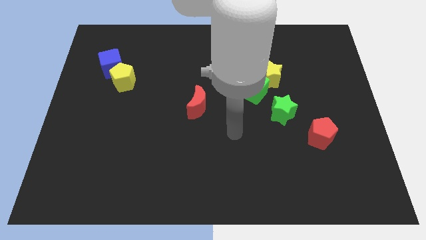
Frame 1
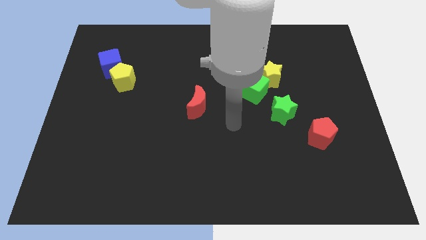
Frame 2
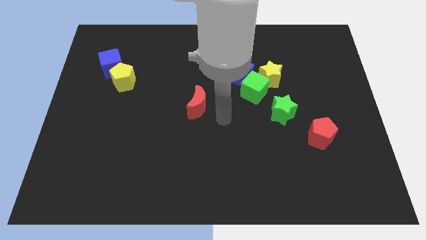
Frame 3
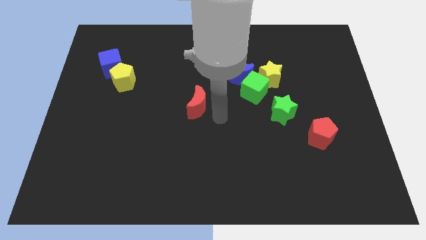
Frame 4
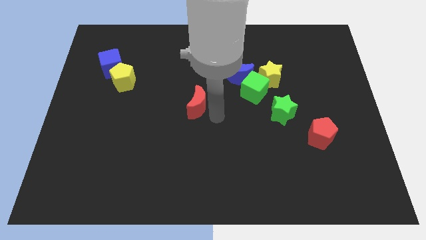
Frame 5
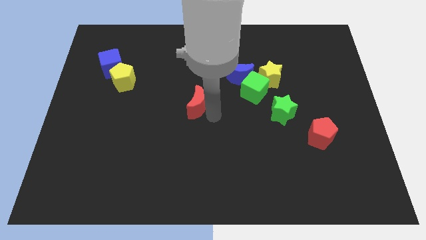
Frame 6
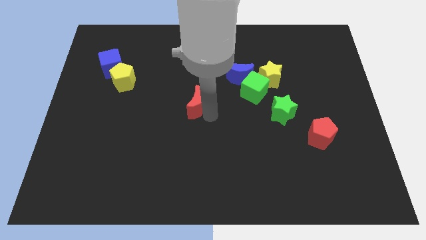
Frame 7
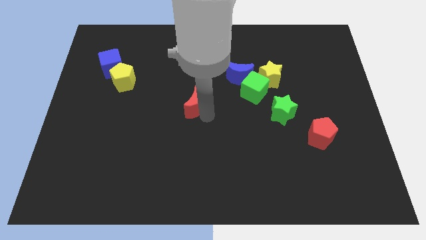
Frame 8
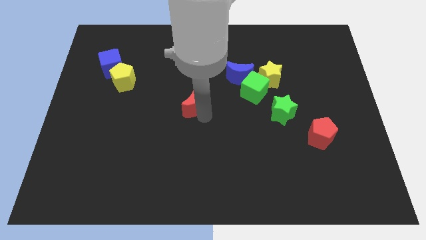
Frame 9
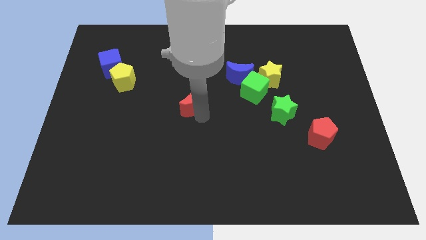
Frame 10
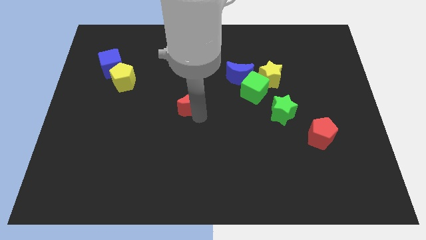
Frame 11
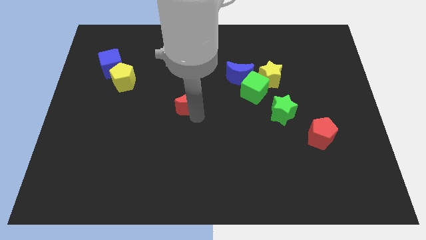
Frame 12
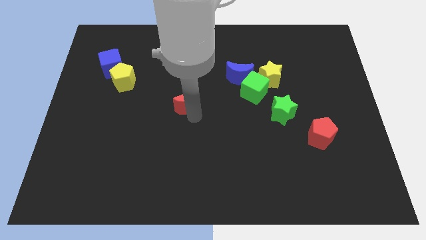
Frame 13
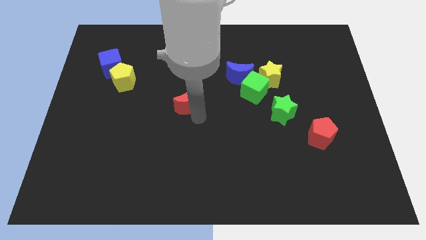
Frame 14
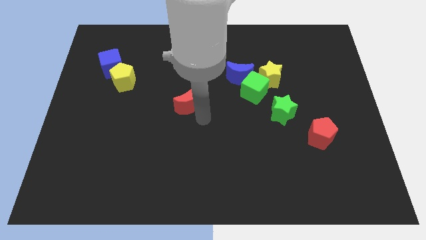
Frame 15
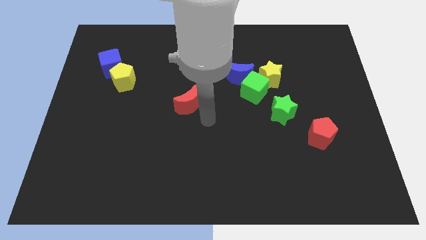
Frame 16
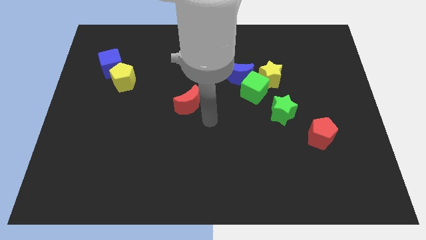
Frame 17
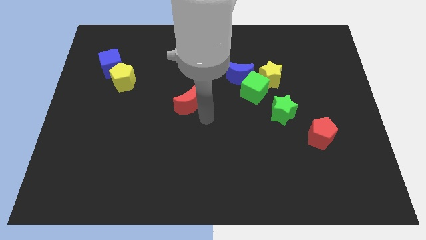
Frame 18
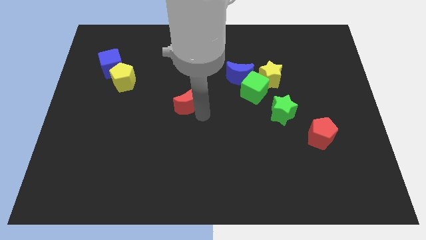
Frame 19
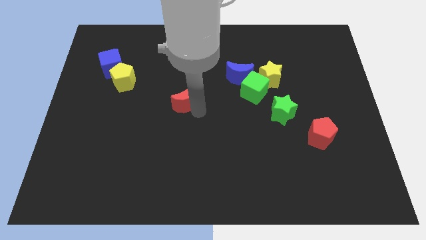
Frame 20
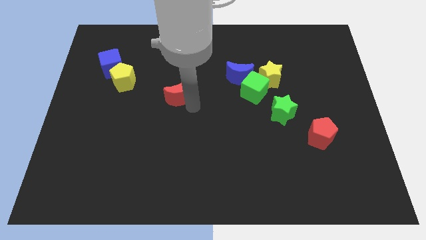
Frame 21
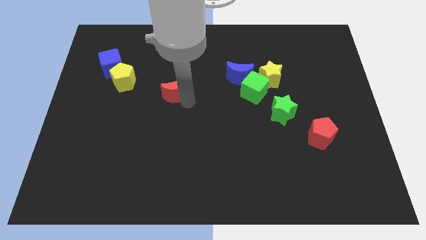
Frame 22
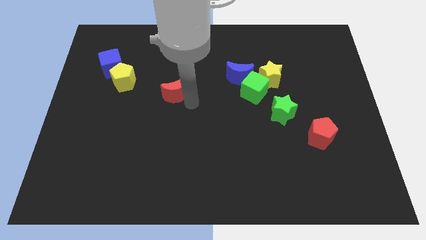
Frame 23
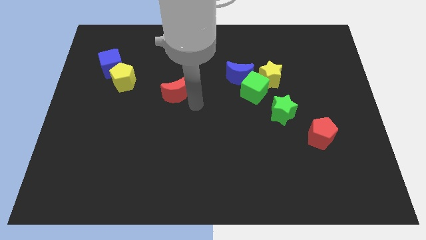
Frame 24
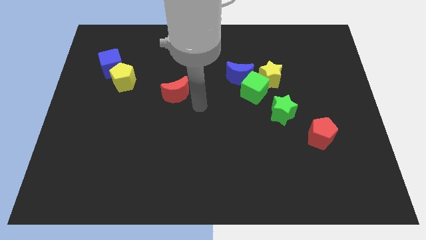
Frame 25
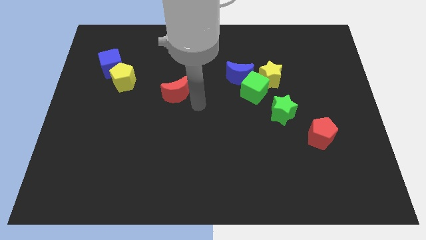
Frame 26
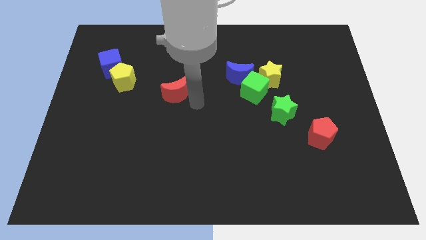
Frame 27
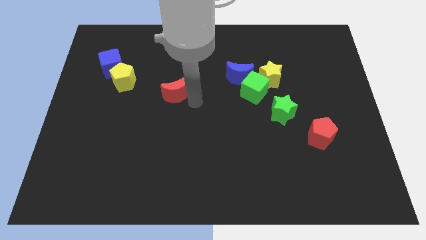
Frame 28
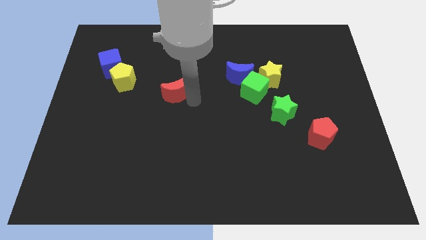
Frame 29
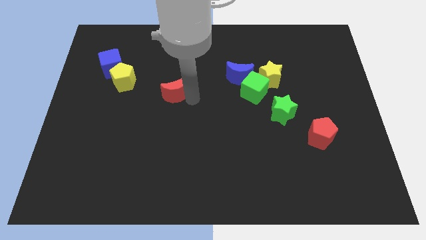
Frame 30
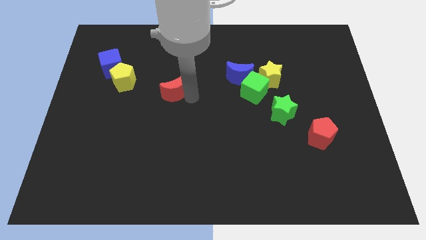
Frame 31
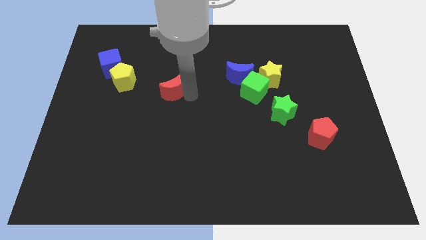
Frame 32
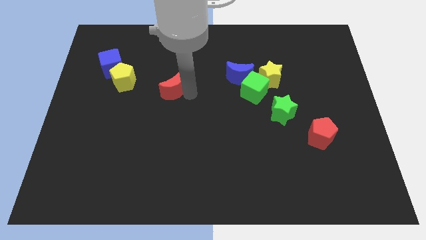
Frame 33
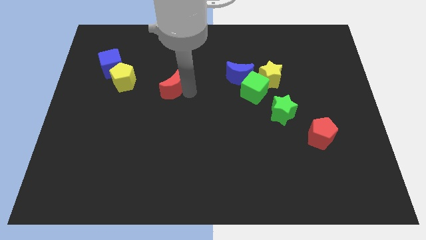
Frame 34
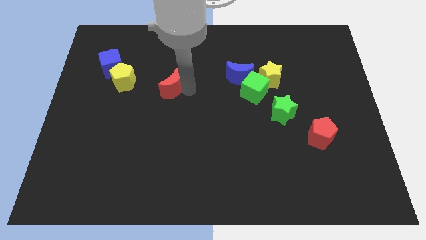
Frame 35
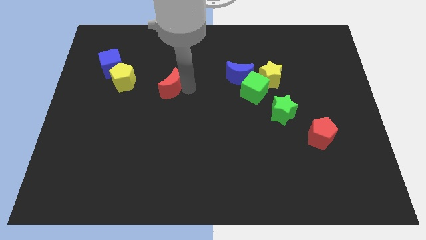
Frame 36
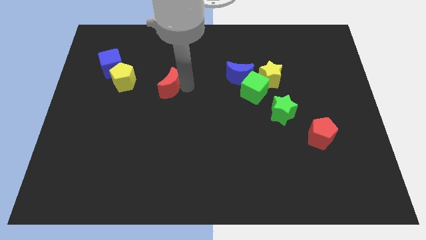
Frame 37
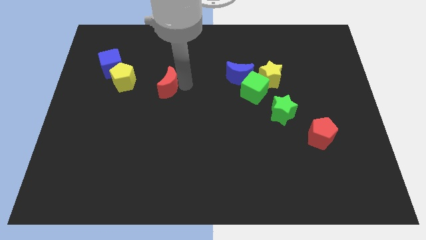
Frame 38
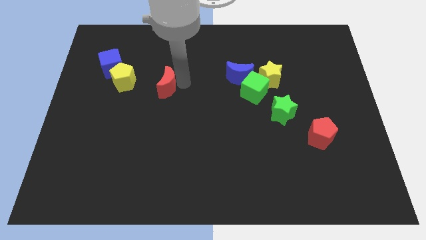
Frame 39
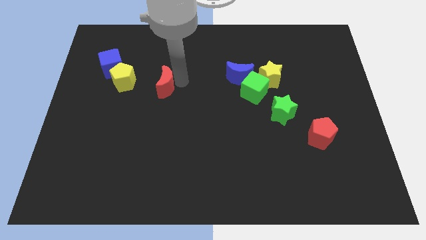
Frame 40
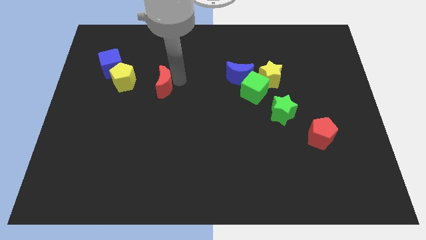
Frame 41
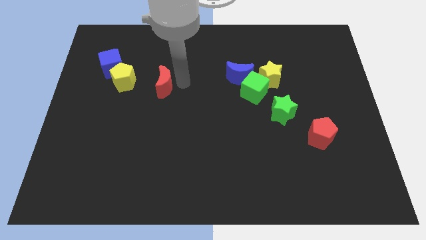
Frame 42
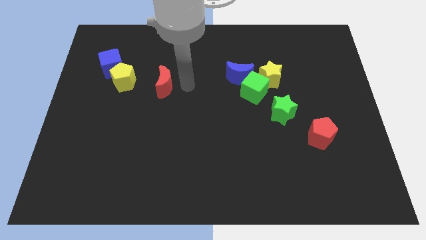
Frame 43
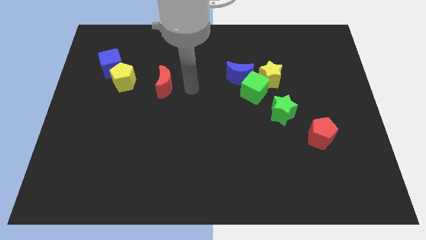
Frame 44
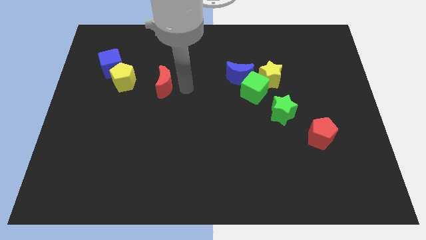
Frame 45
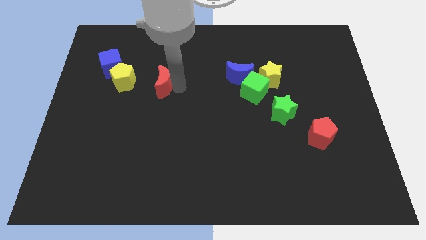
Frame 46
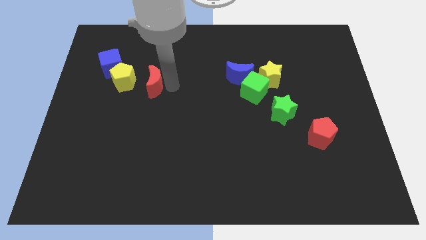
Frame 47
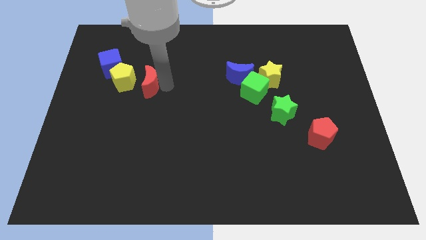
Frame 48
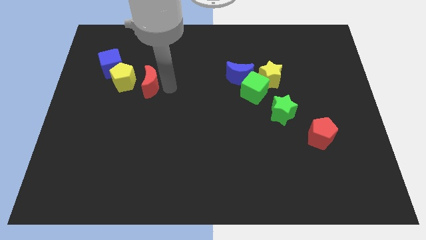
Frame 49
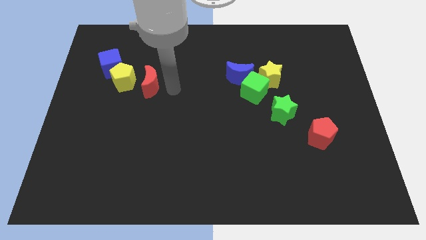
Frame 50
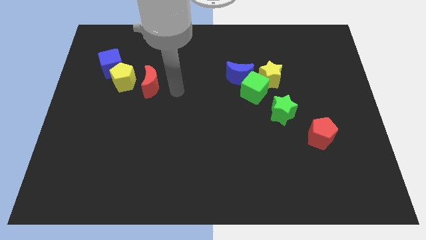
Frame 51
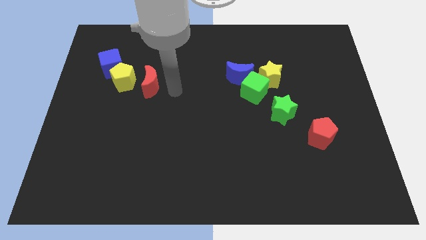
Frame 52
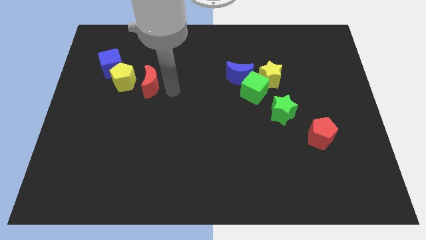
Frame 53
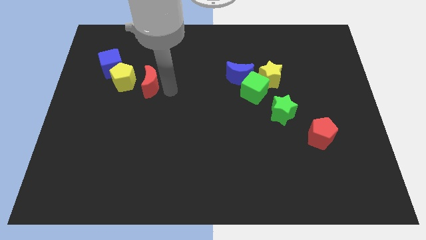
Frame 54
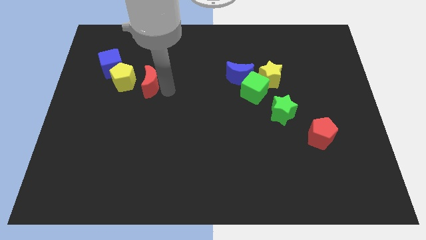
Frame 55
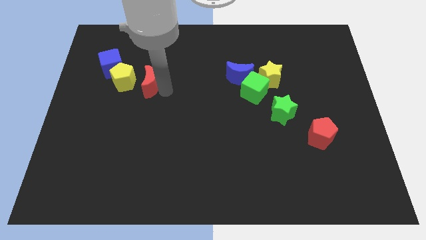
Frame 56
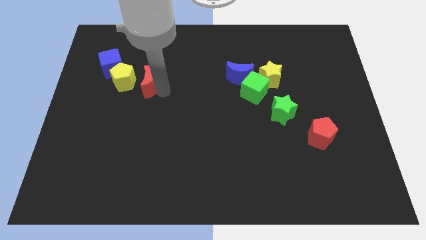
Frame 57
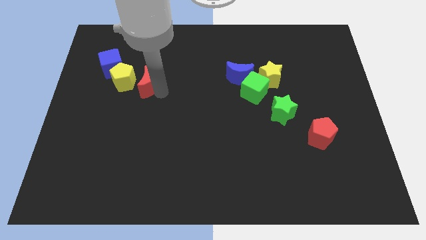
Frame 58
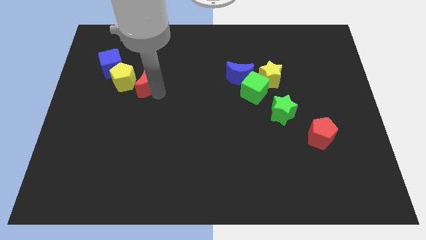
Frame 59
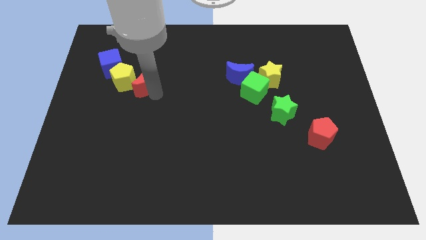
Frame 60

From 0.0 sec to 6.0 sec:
slide the red moon next to the yellow pentagon

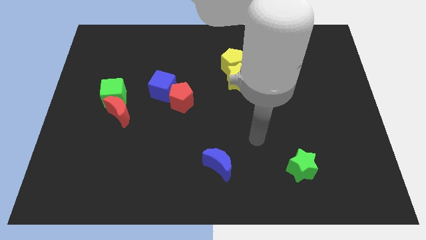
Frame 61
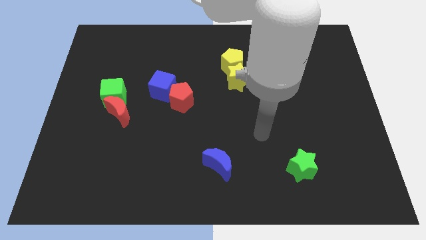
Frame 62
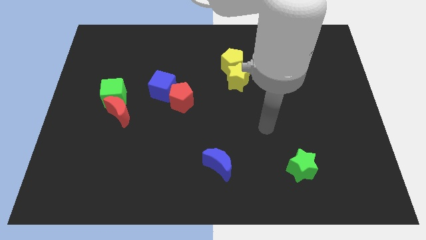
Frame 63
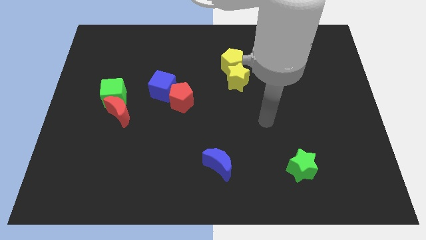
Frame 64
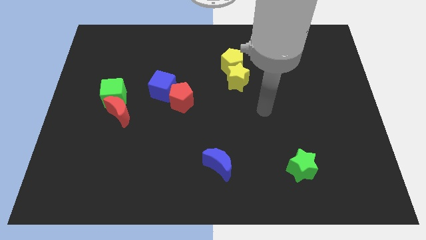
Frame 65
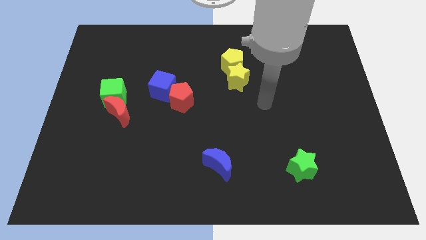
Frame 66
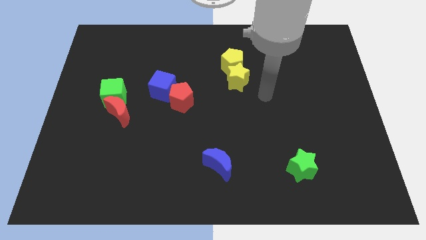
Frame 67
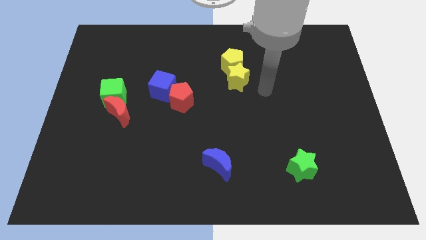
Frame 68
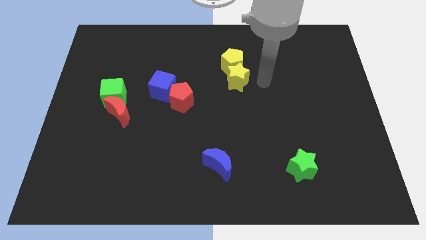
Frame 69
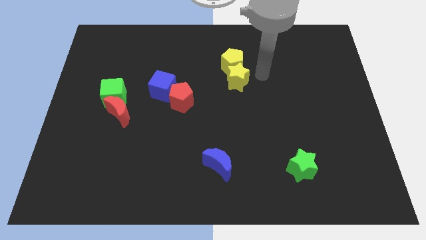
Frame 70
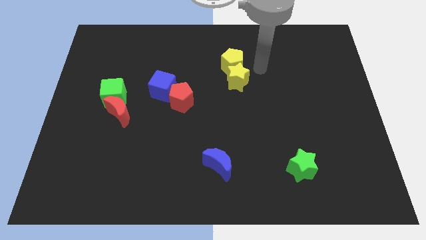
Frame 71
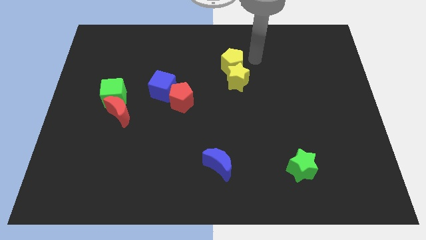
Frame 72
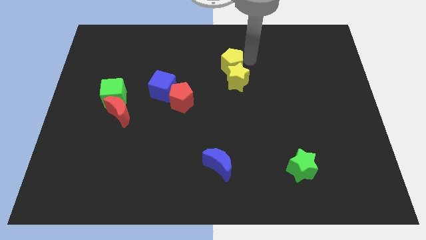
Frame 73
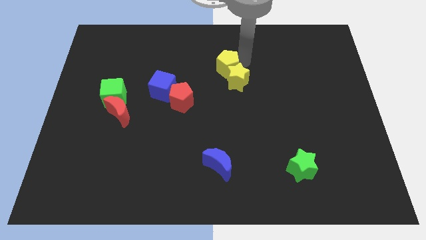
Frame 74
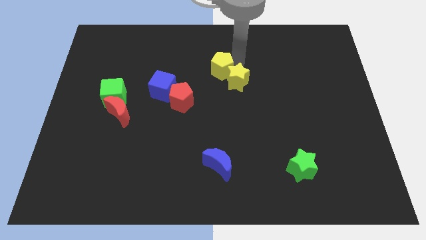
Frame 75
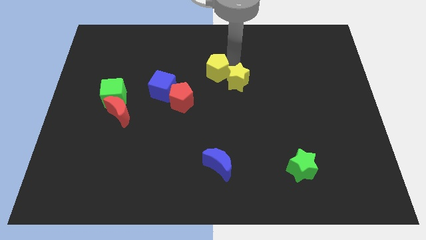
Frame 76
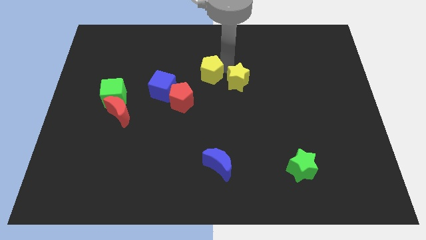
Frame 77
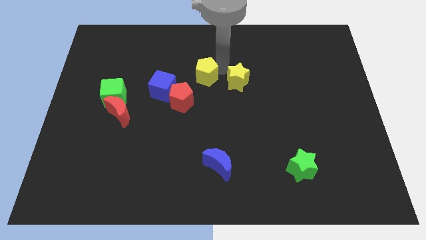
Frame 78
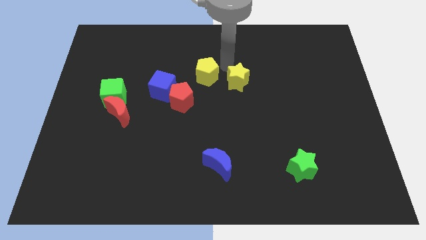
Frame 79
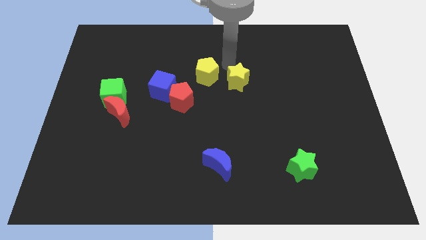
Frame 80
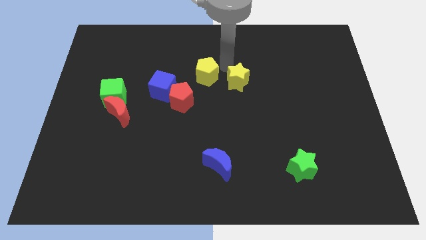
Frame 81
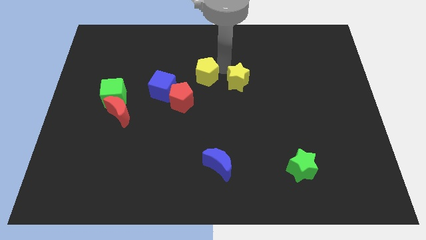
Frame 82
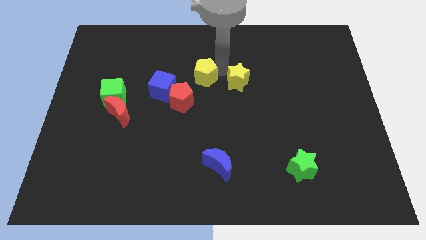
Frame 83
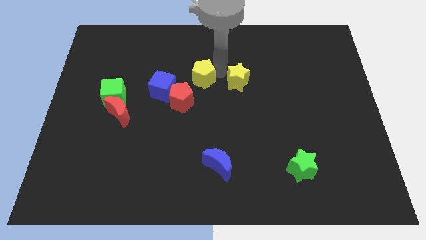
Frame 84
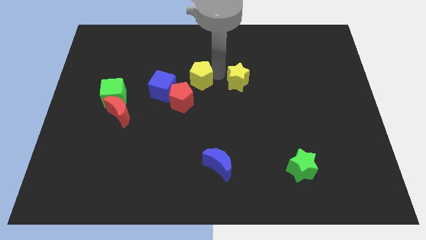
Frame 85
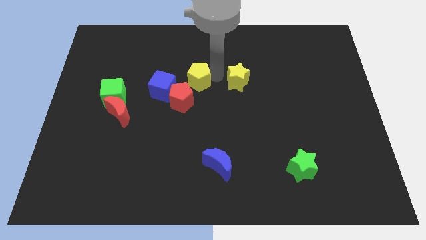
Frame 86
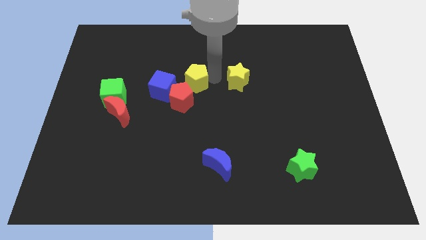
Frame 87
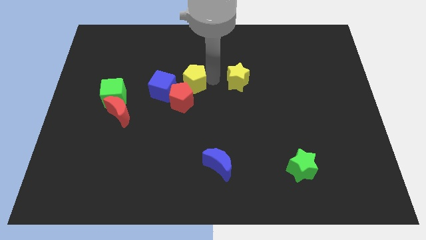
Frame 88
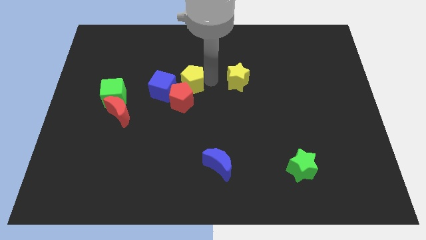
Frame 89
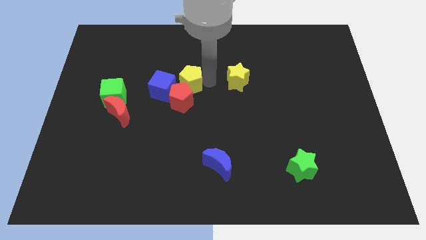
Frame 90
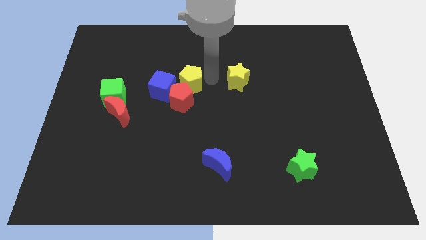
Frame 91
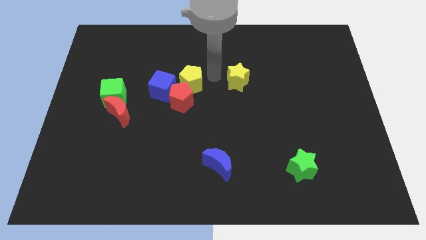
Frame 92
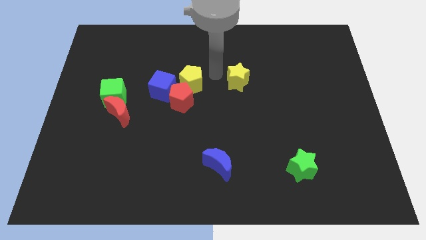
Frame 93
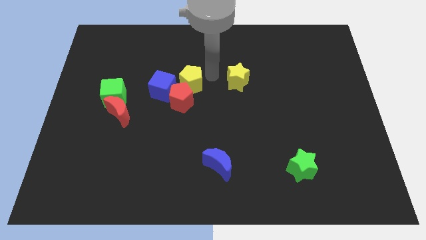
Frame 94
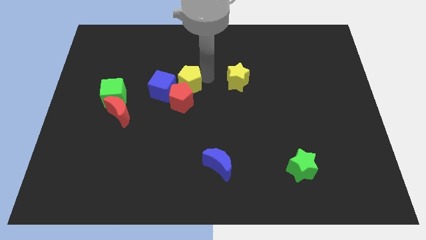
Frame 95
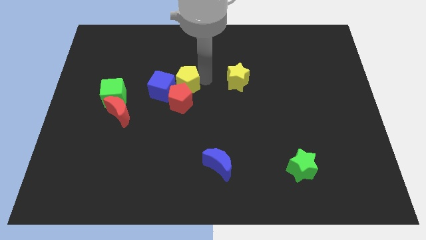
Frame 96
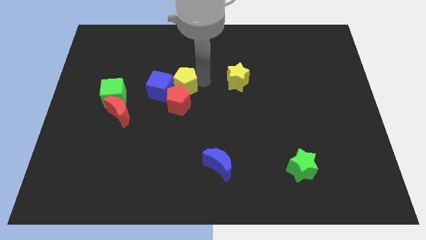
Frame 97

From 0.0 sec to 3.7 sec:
slide the yellow pentagon close to the blue cube
